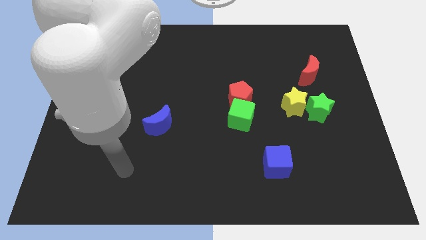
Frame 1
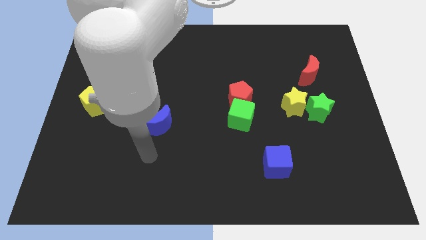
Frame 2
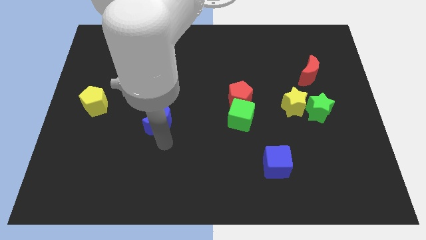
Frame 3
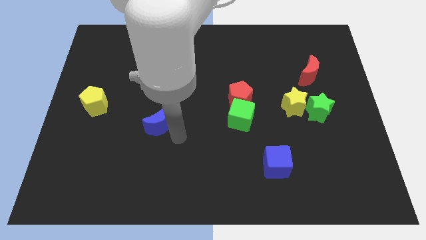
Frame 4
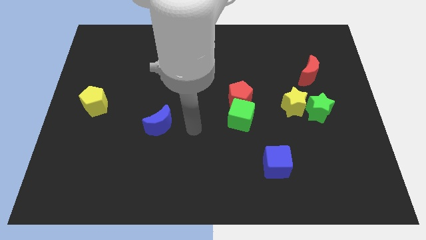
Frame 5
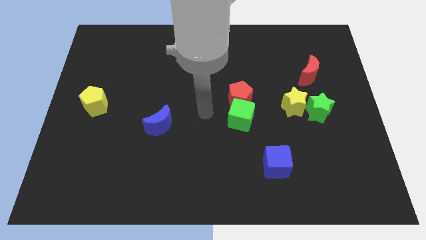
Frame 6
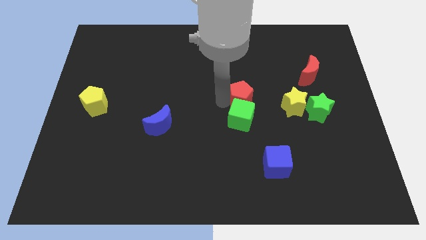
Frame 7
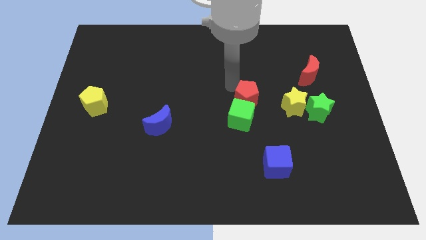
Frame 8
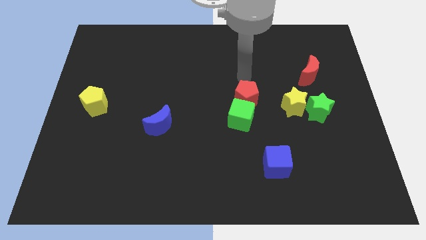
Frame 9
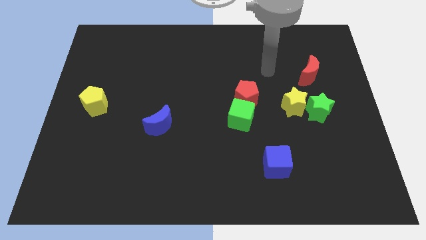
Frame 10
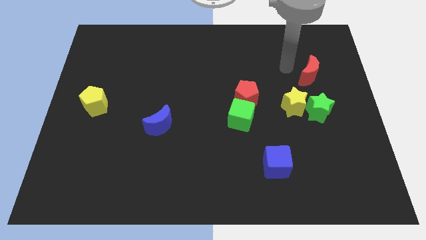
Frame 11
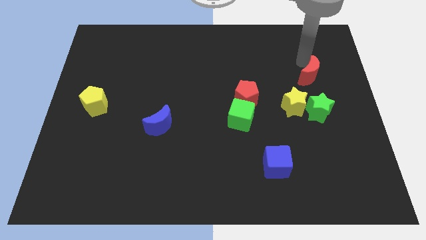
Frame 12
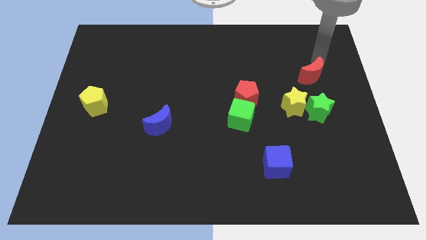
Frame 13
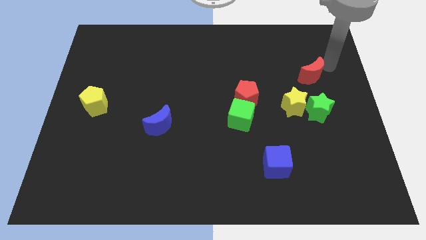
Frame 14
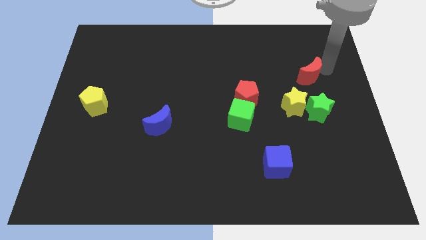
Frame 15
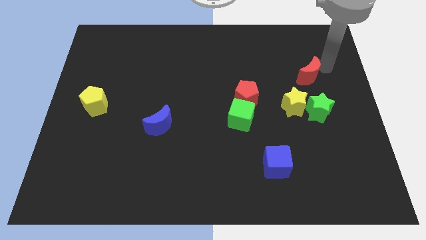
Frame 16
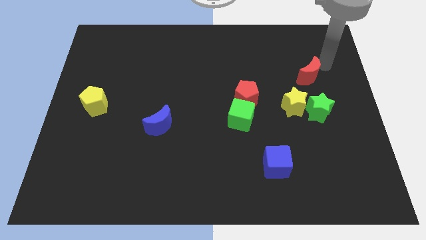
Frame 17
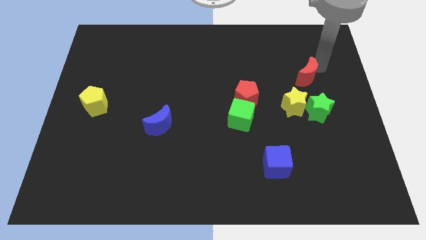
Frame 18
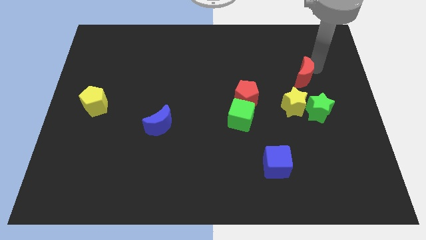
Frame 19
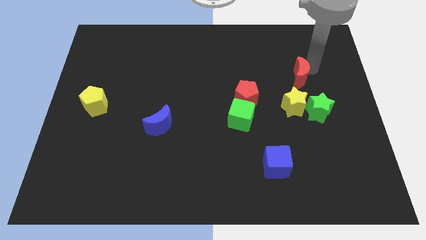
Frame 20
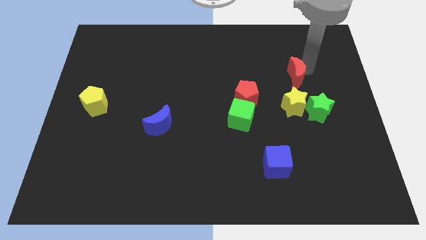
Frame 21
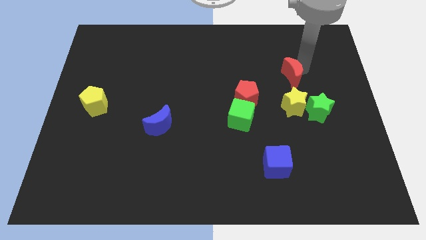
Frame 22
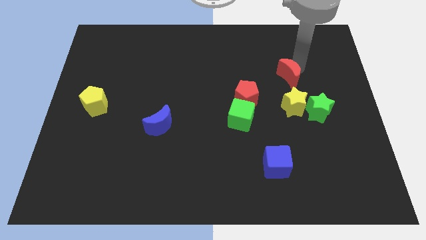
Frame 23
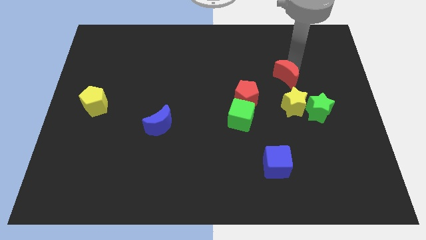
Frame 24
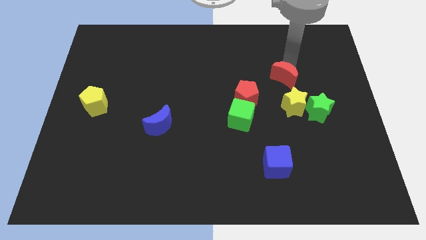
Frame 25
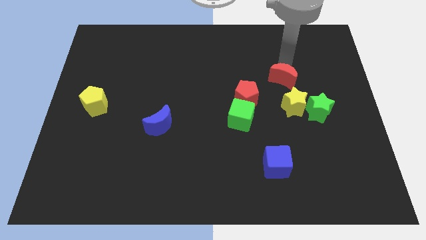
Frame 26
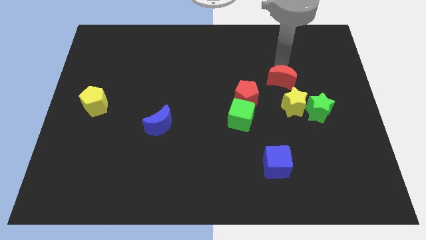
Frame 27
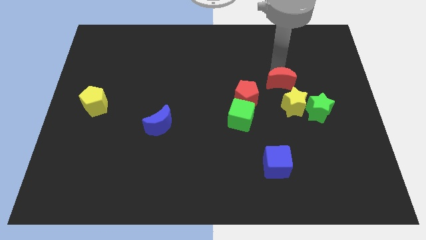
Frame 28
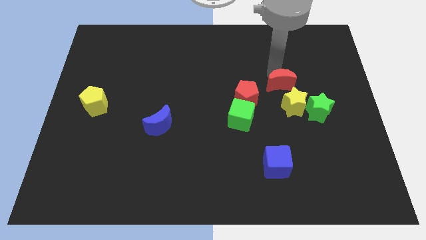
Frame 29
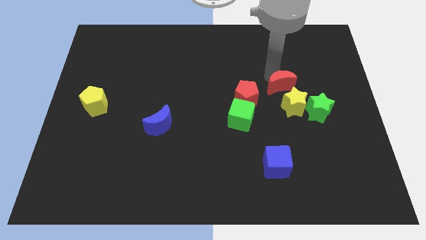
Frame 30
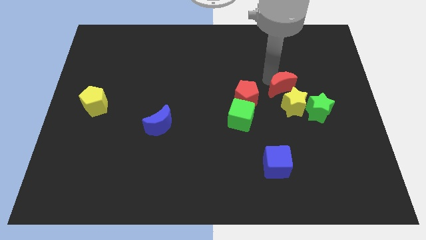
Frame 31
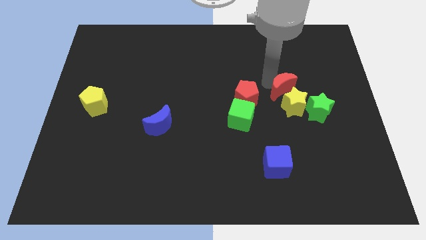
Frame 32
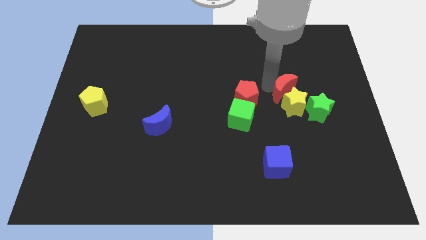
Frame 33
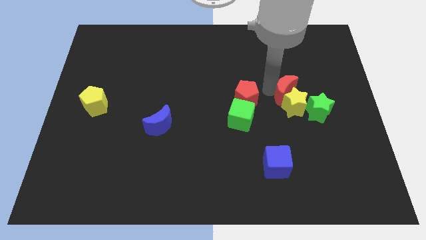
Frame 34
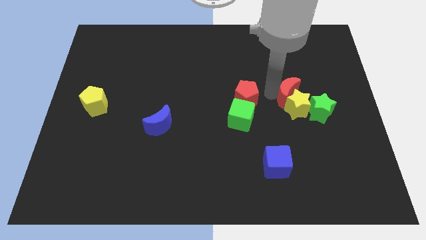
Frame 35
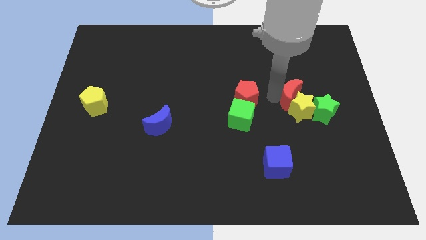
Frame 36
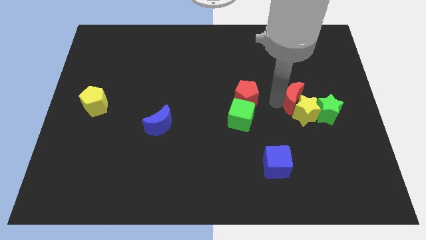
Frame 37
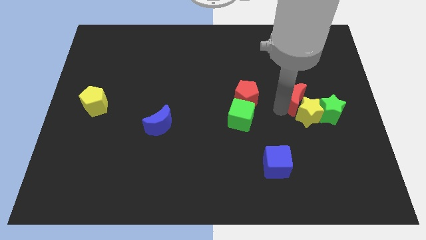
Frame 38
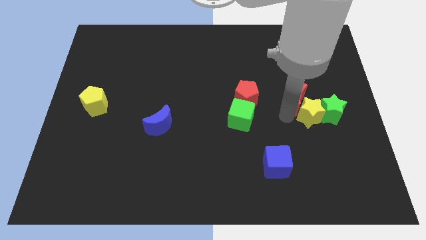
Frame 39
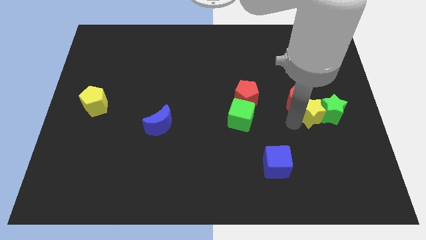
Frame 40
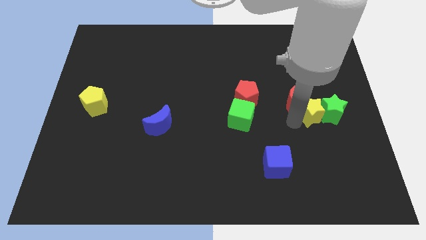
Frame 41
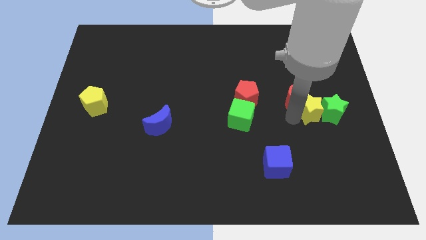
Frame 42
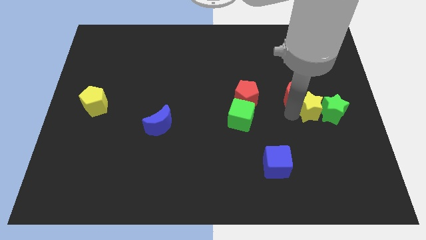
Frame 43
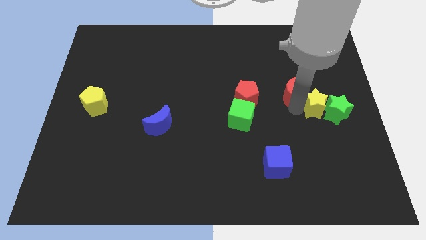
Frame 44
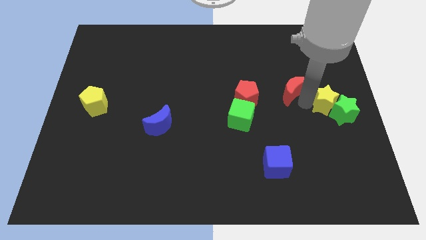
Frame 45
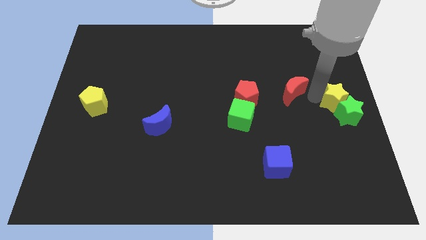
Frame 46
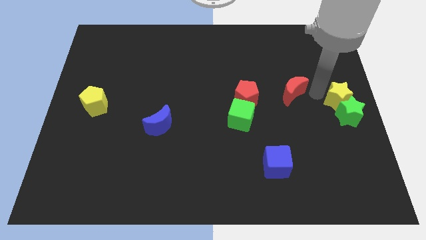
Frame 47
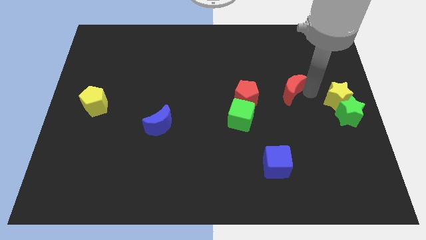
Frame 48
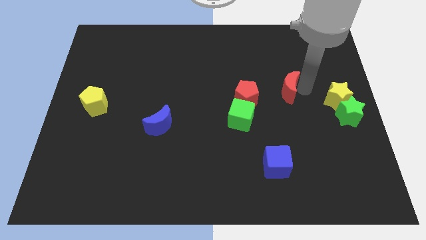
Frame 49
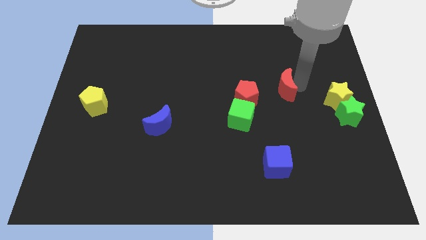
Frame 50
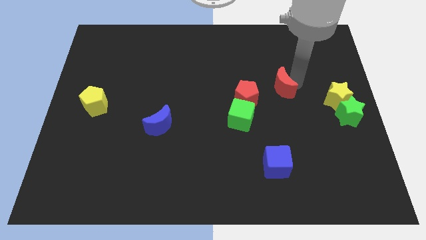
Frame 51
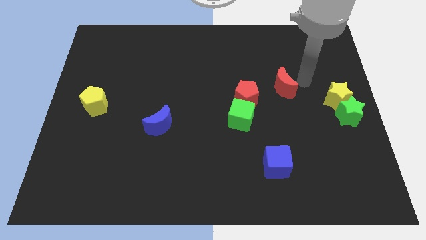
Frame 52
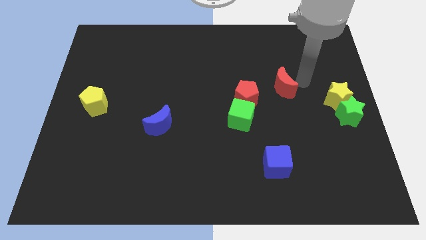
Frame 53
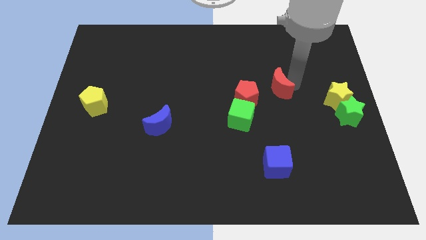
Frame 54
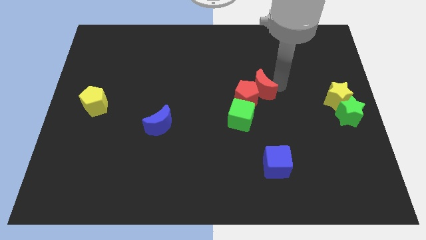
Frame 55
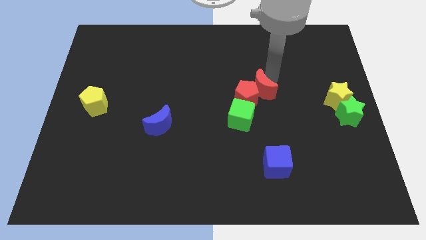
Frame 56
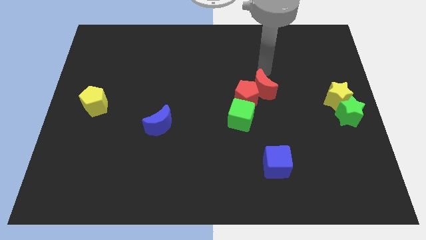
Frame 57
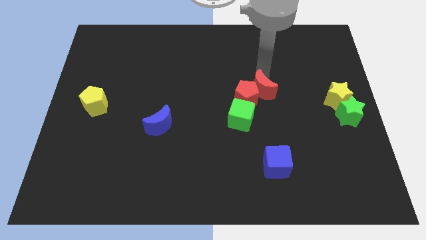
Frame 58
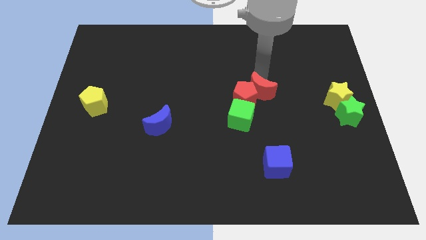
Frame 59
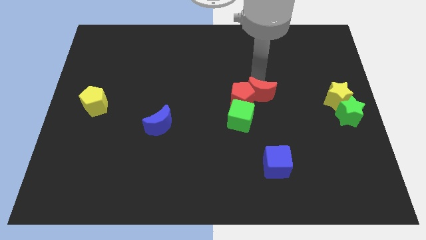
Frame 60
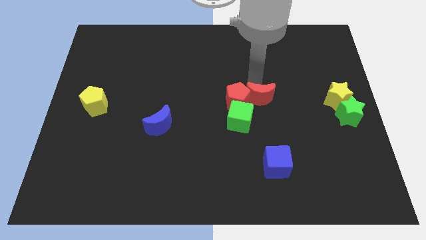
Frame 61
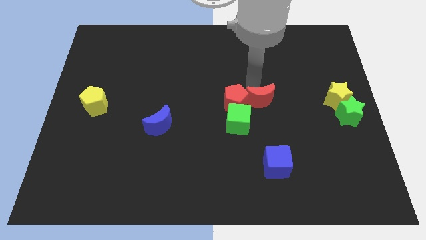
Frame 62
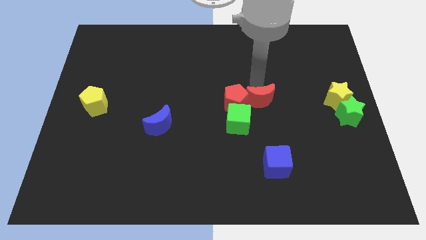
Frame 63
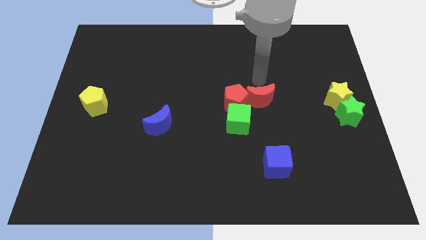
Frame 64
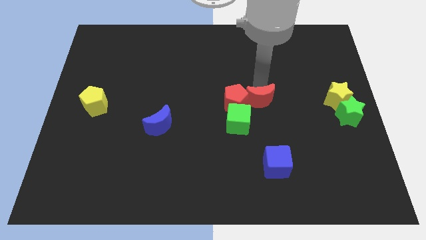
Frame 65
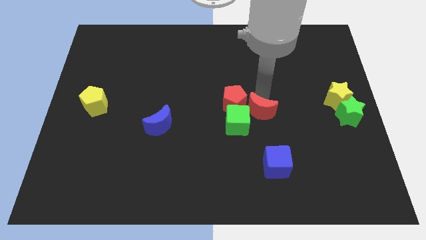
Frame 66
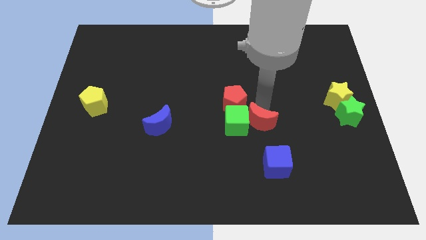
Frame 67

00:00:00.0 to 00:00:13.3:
push the red moon down and left

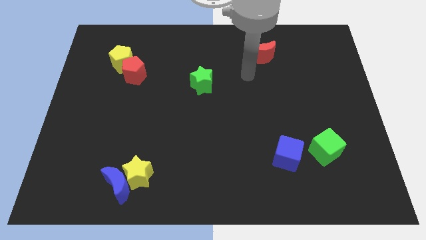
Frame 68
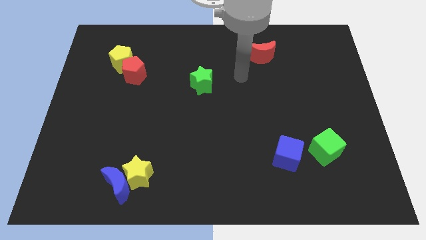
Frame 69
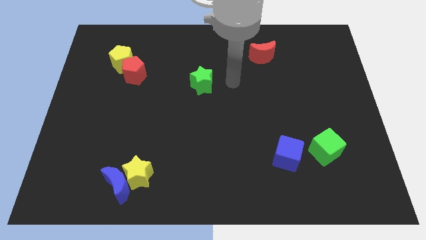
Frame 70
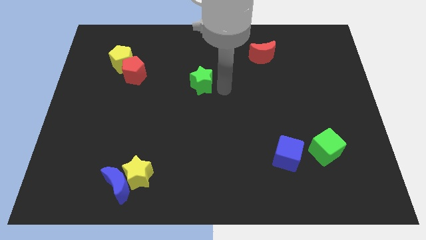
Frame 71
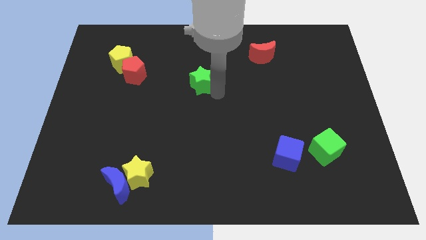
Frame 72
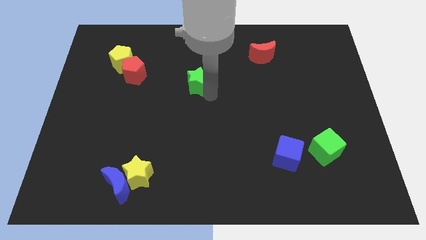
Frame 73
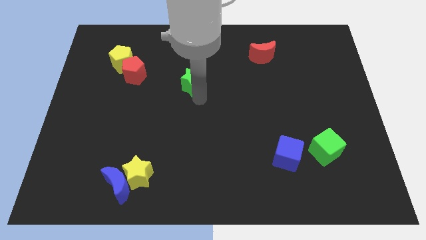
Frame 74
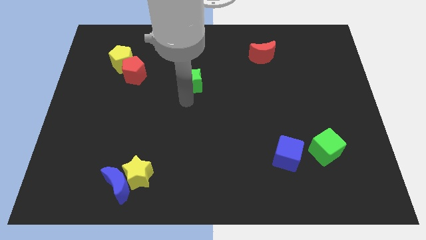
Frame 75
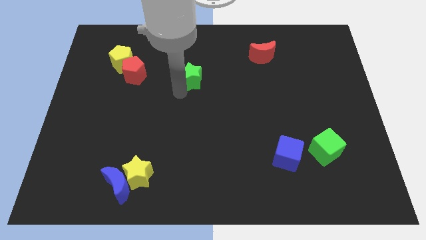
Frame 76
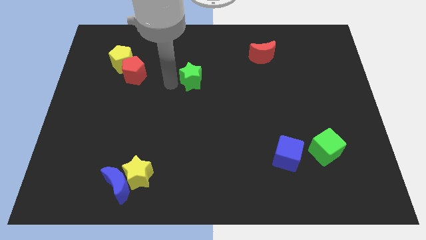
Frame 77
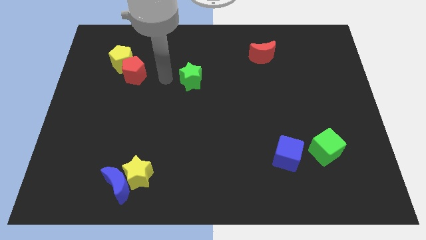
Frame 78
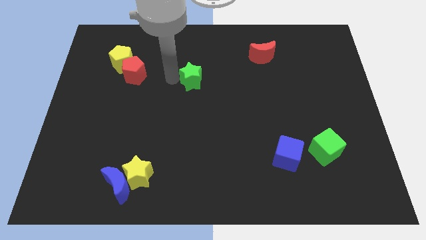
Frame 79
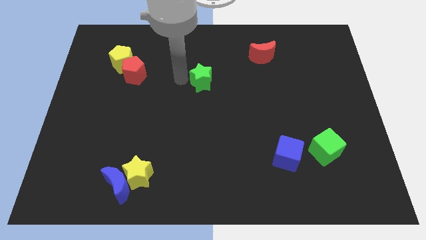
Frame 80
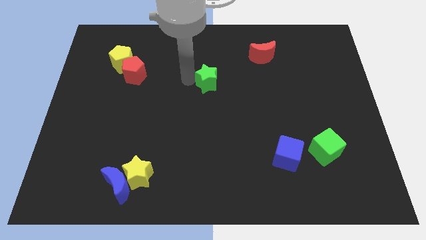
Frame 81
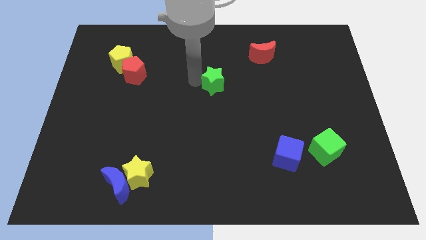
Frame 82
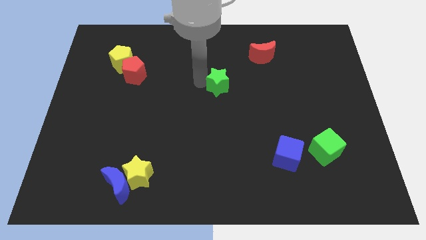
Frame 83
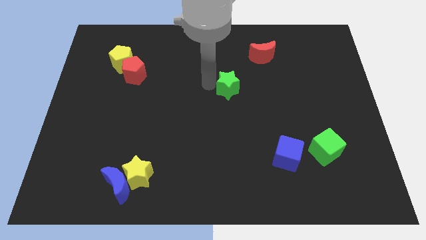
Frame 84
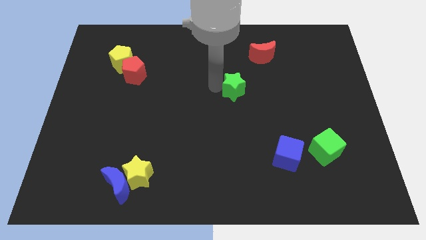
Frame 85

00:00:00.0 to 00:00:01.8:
push the green star right somewhat
